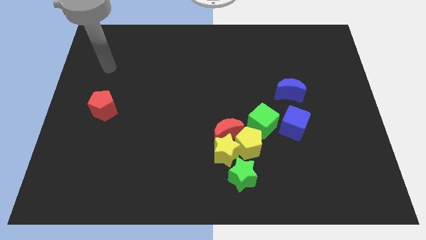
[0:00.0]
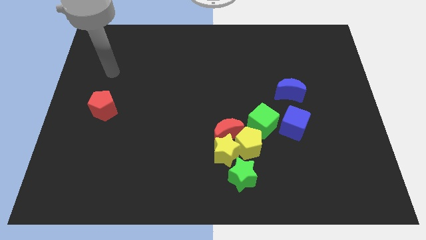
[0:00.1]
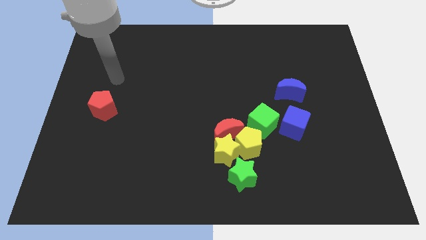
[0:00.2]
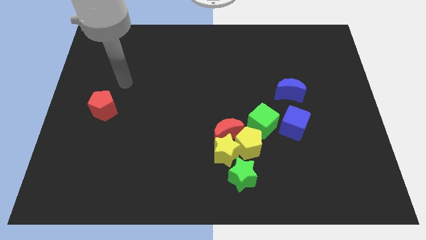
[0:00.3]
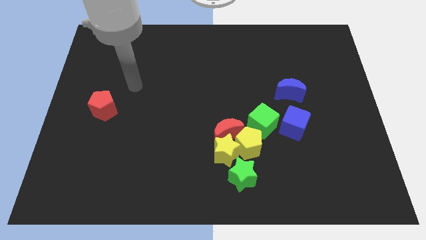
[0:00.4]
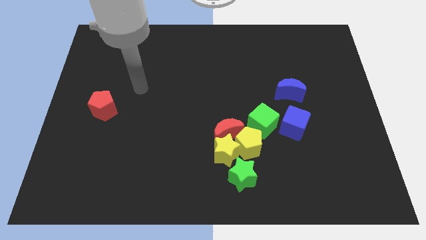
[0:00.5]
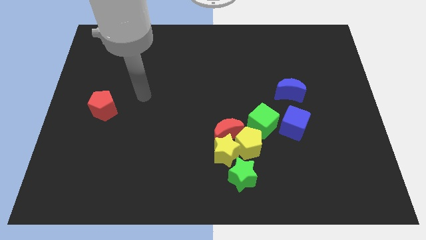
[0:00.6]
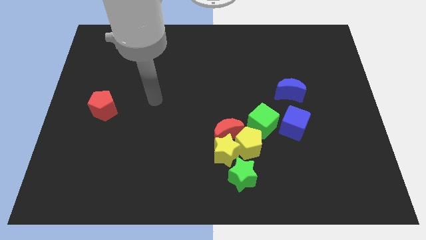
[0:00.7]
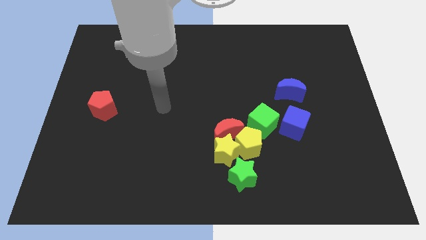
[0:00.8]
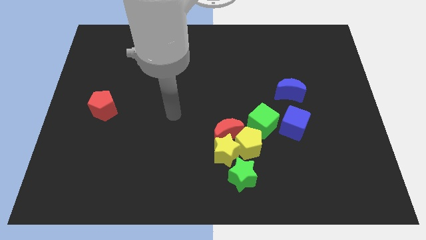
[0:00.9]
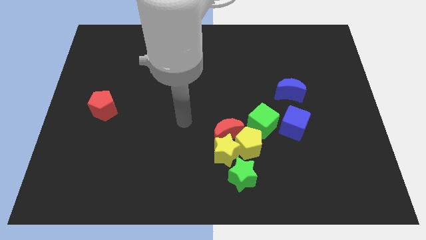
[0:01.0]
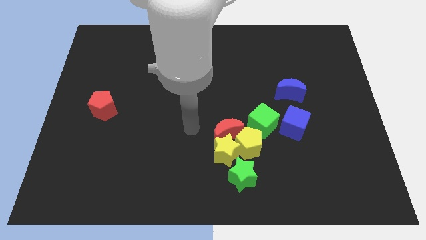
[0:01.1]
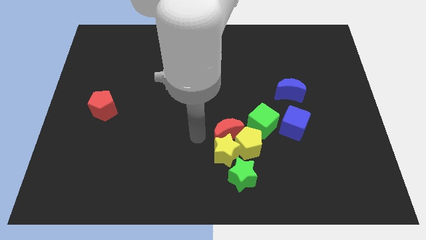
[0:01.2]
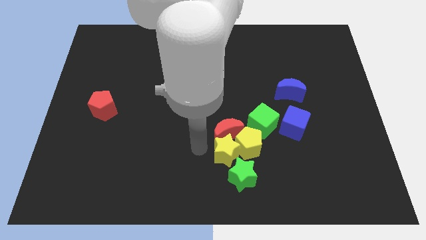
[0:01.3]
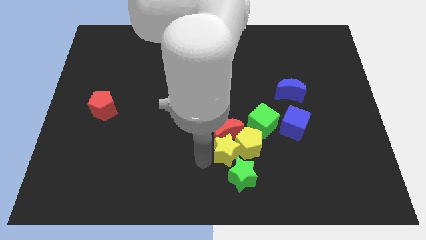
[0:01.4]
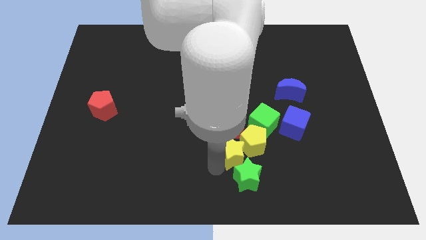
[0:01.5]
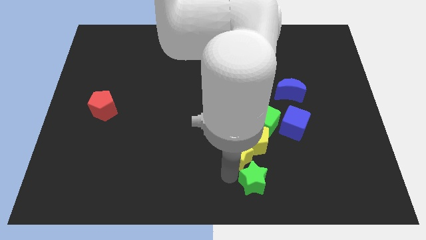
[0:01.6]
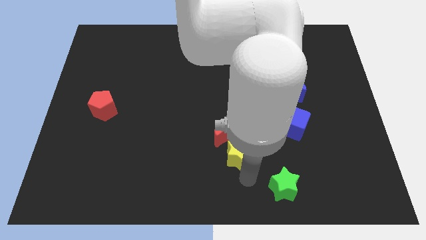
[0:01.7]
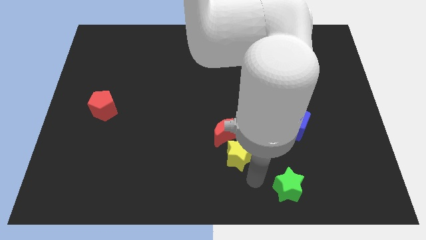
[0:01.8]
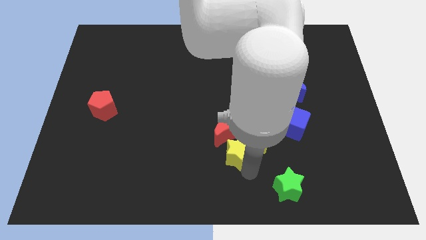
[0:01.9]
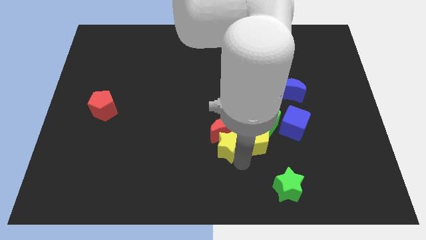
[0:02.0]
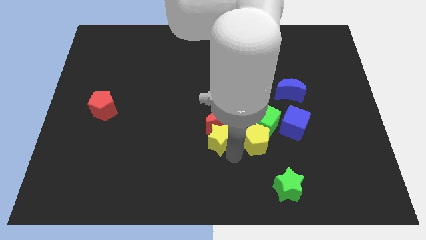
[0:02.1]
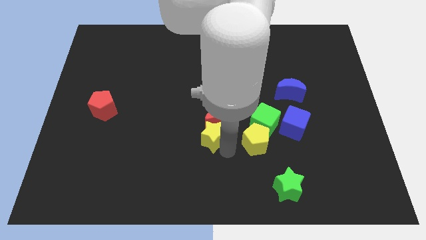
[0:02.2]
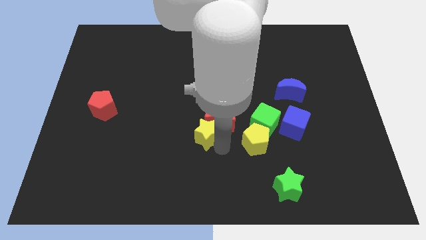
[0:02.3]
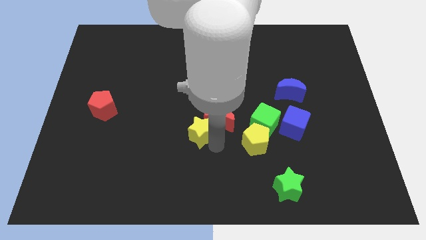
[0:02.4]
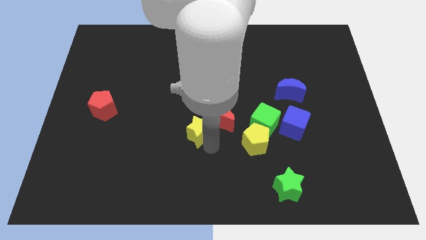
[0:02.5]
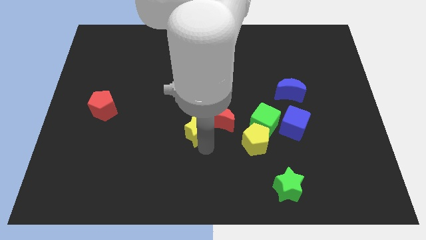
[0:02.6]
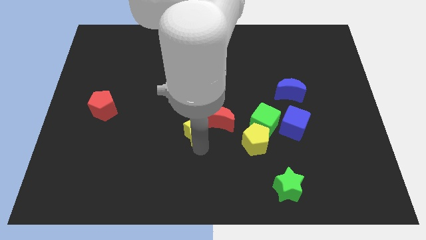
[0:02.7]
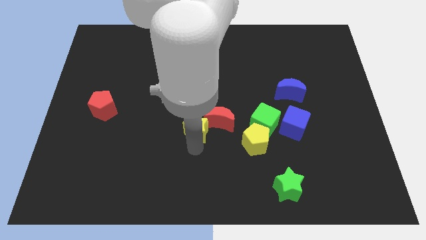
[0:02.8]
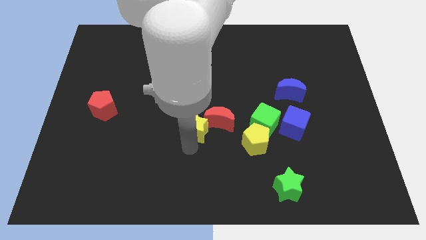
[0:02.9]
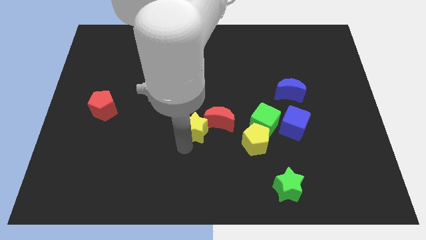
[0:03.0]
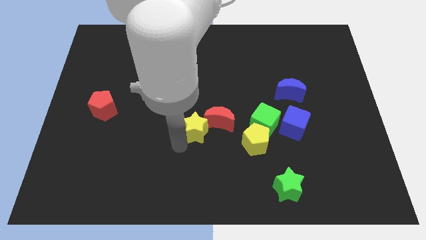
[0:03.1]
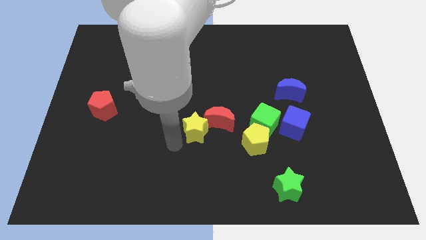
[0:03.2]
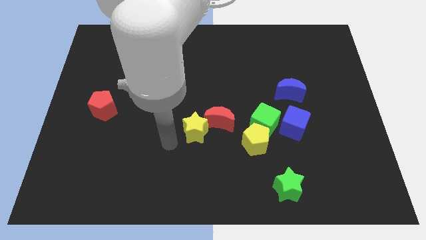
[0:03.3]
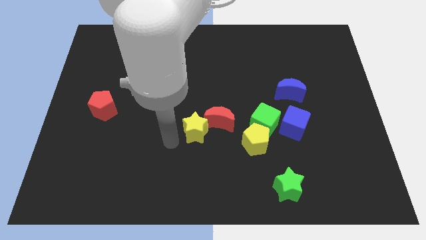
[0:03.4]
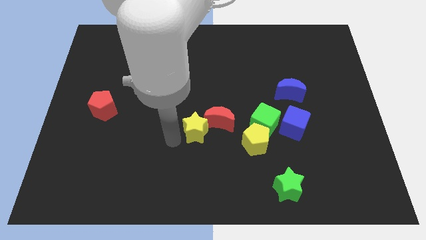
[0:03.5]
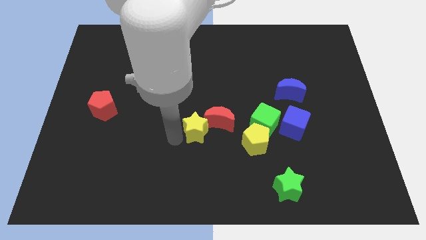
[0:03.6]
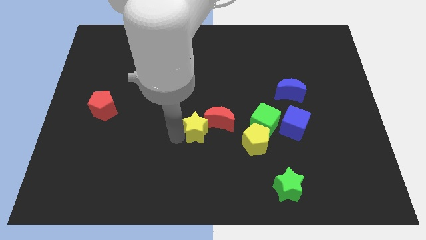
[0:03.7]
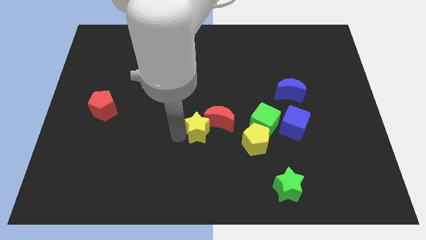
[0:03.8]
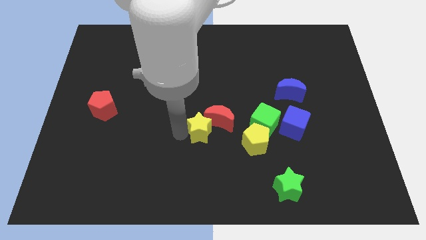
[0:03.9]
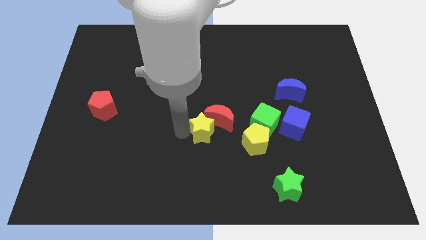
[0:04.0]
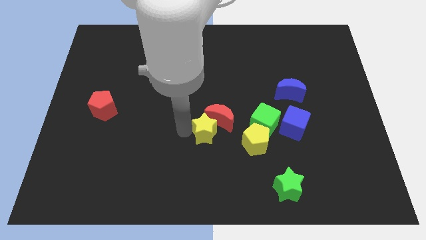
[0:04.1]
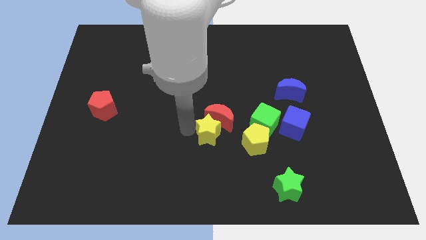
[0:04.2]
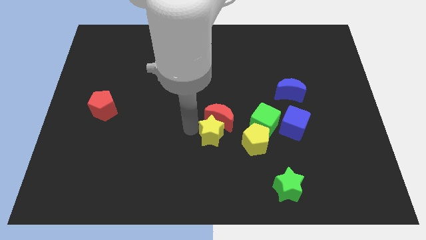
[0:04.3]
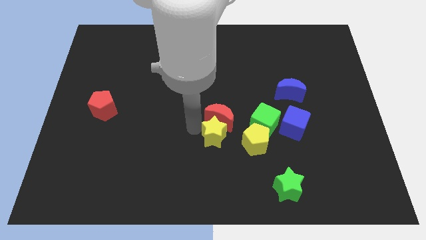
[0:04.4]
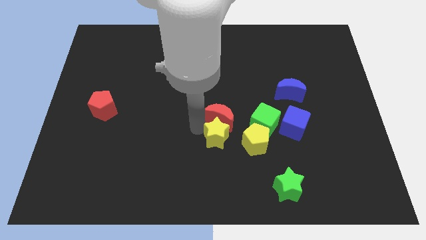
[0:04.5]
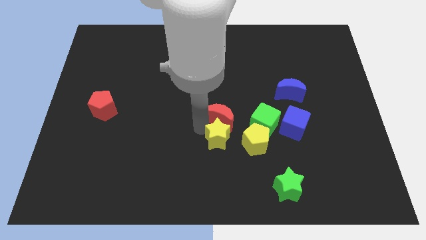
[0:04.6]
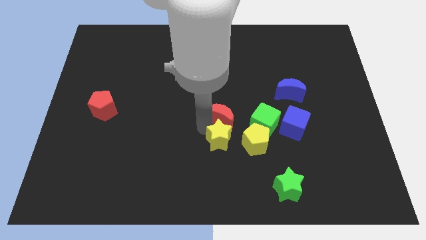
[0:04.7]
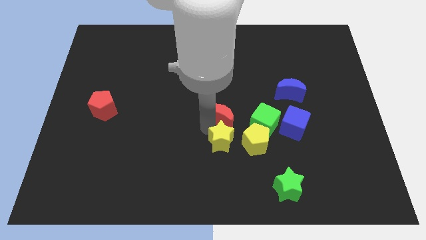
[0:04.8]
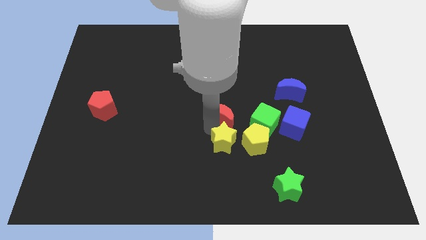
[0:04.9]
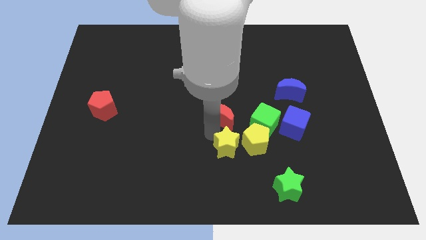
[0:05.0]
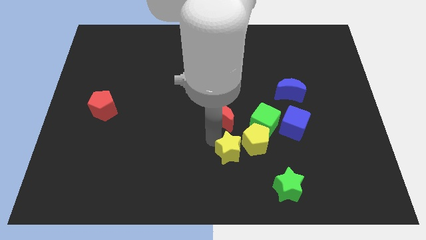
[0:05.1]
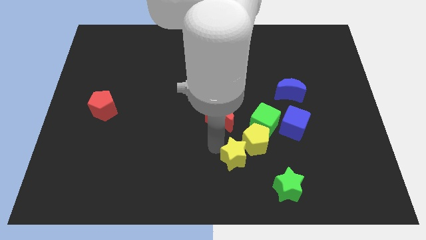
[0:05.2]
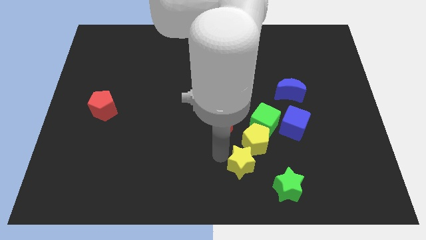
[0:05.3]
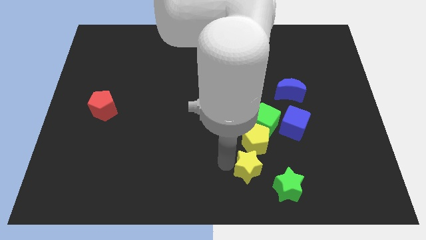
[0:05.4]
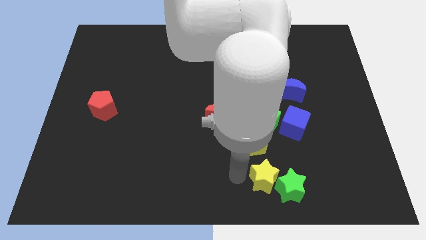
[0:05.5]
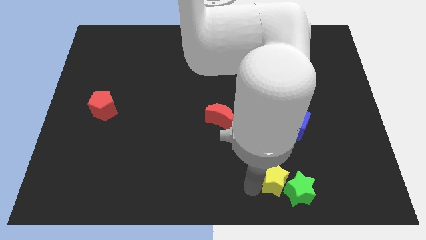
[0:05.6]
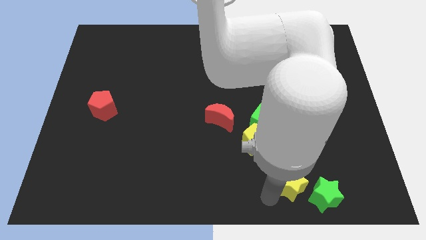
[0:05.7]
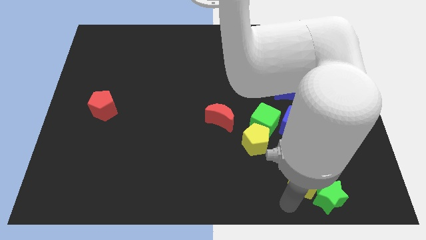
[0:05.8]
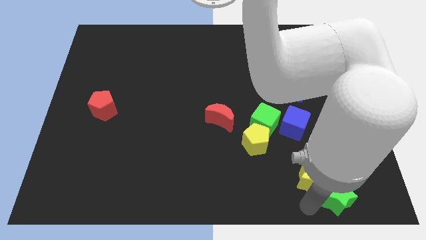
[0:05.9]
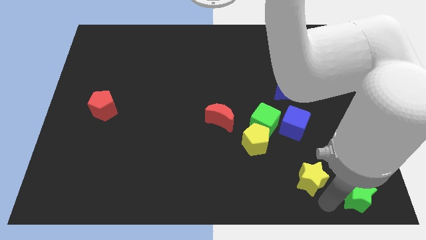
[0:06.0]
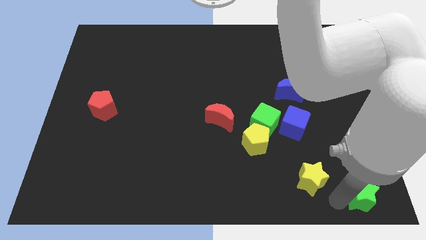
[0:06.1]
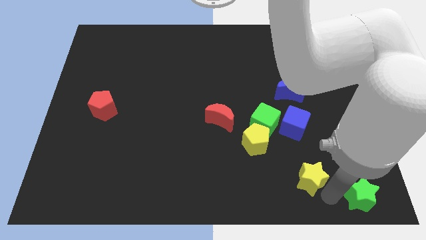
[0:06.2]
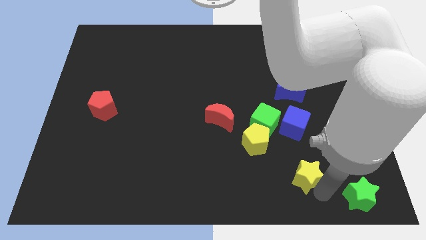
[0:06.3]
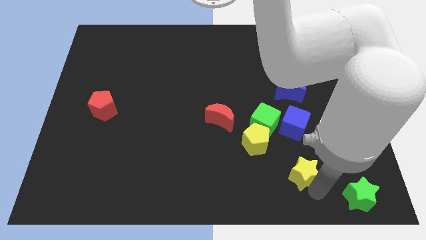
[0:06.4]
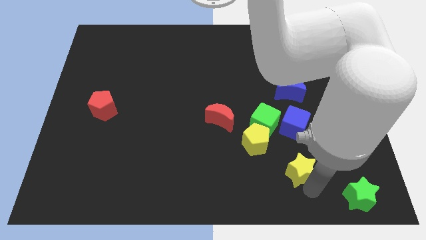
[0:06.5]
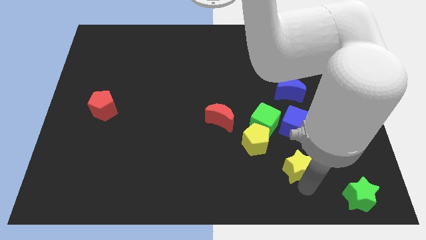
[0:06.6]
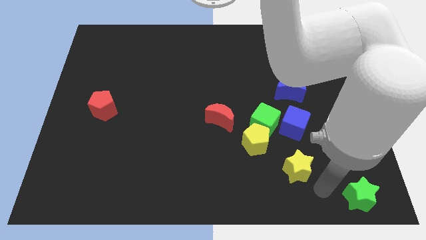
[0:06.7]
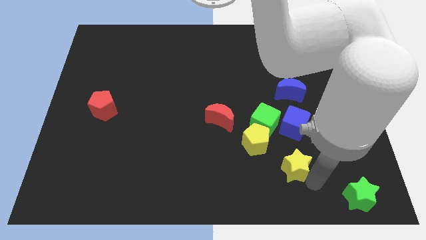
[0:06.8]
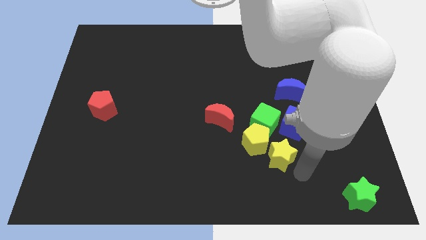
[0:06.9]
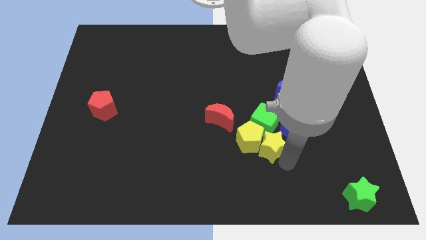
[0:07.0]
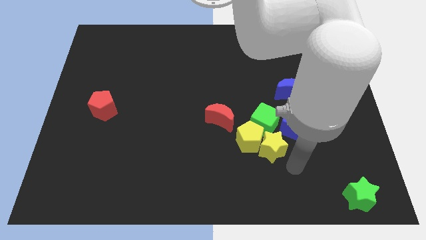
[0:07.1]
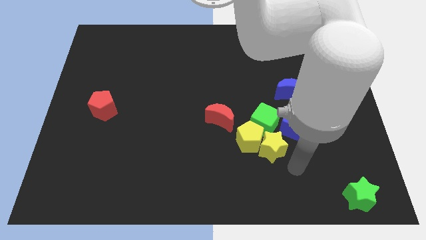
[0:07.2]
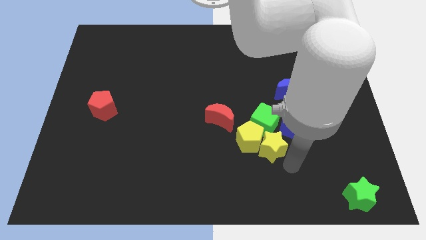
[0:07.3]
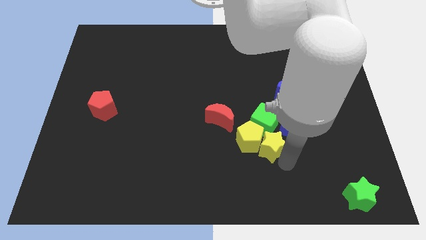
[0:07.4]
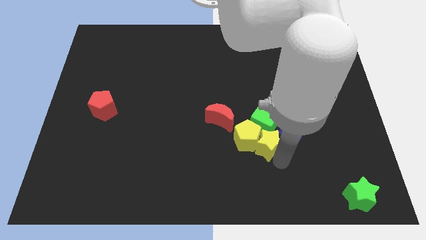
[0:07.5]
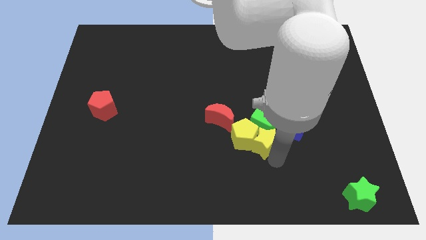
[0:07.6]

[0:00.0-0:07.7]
move the yellow star to the green cube
